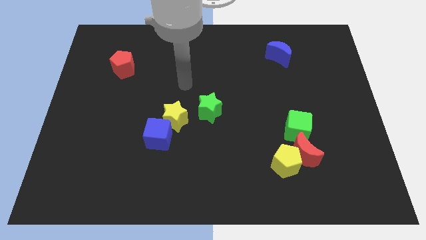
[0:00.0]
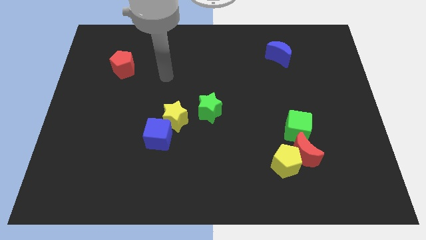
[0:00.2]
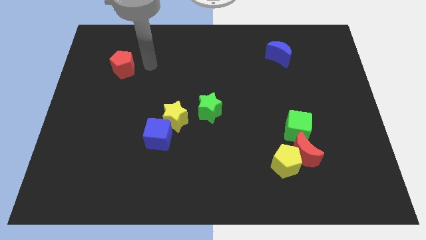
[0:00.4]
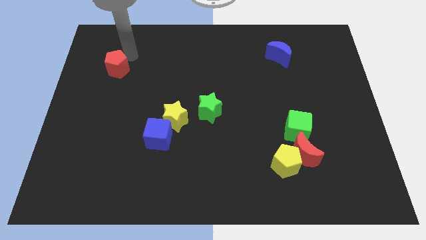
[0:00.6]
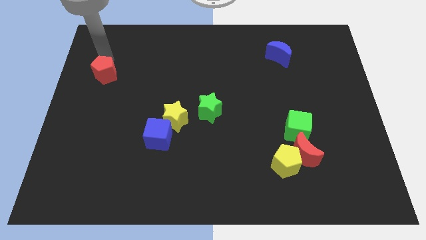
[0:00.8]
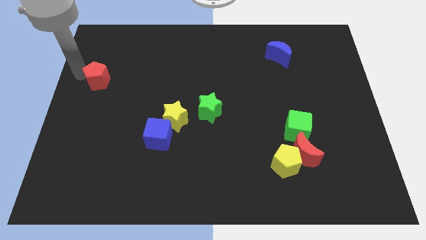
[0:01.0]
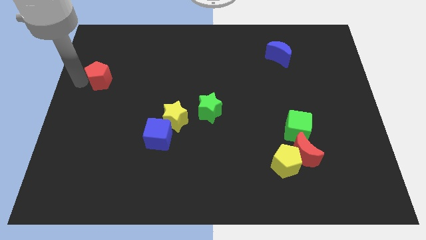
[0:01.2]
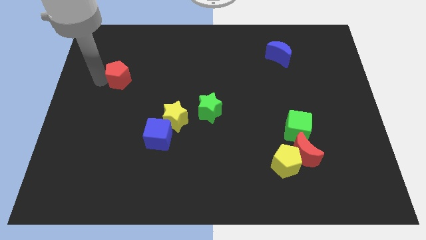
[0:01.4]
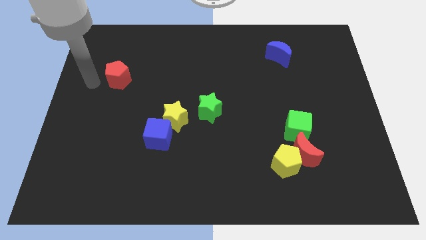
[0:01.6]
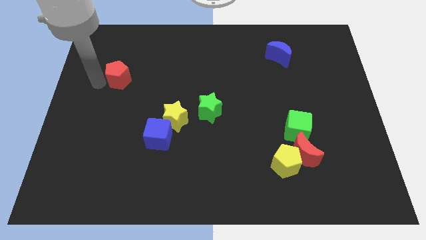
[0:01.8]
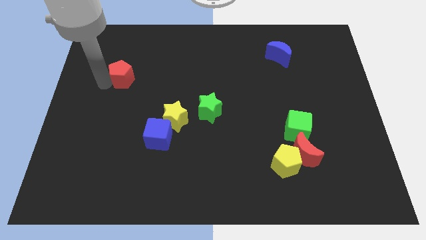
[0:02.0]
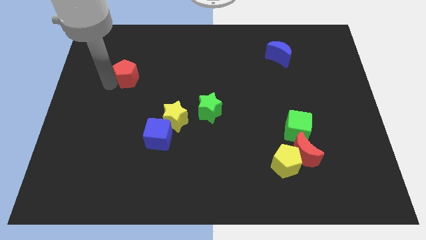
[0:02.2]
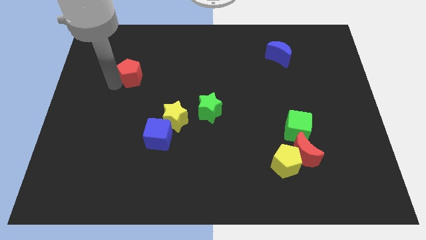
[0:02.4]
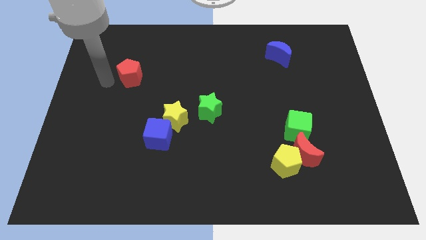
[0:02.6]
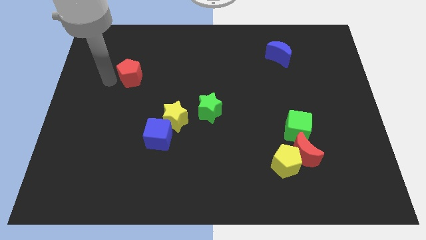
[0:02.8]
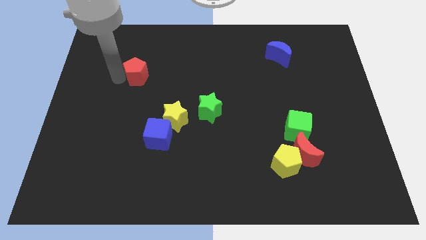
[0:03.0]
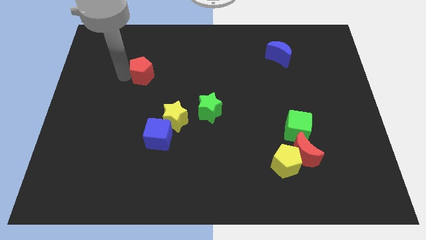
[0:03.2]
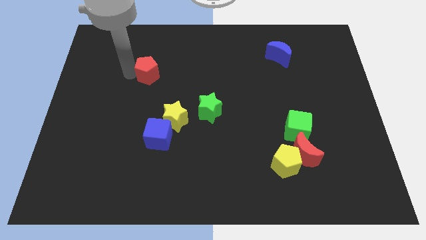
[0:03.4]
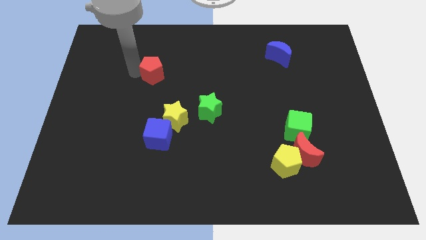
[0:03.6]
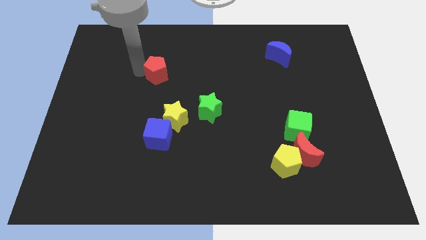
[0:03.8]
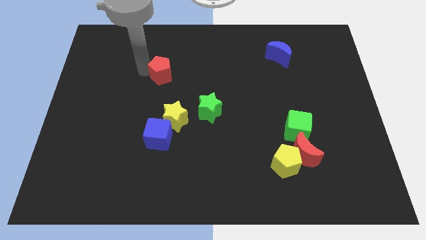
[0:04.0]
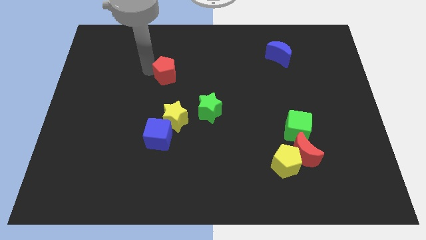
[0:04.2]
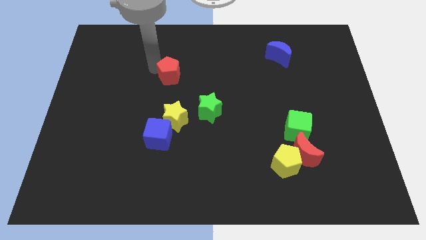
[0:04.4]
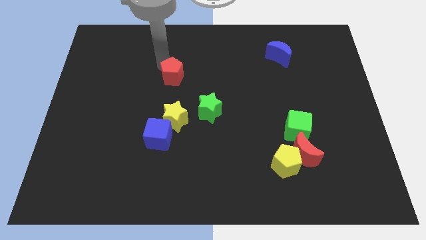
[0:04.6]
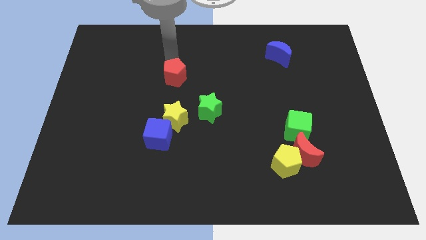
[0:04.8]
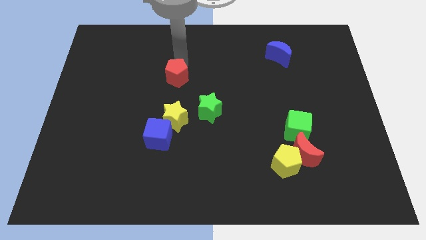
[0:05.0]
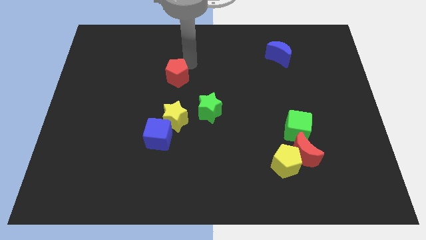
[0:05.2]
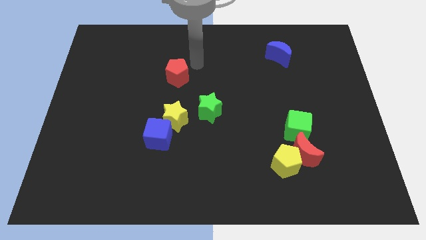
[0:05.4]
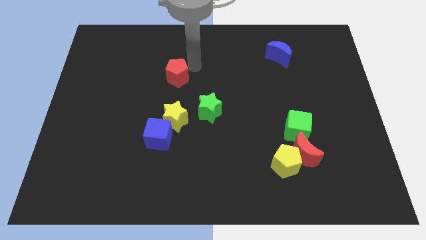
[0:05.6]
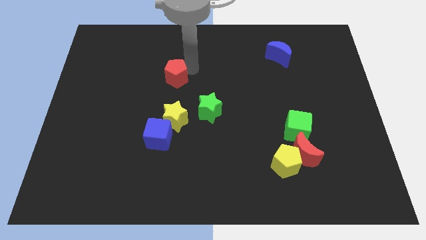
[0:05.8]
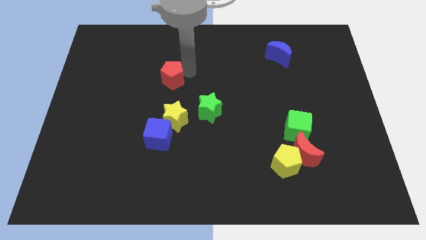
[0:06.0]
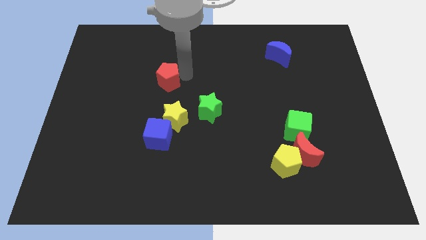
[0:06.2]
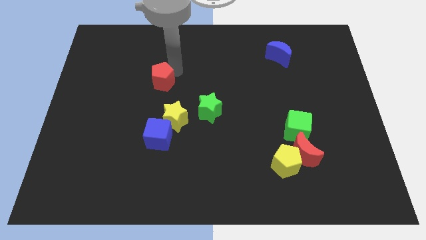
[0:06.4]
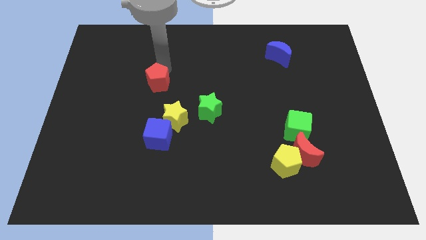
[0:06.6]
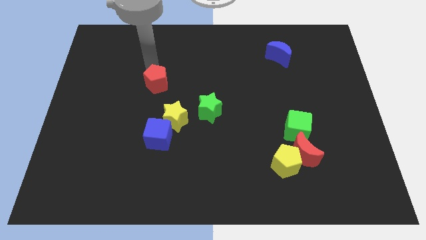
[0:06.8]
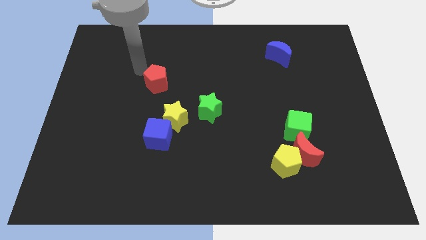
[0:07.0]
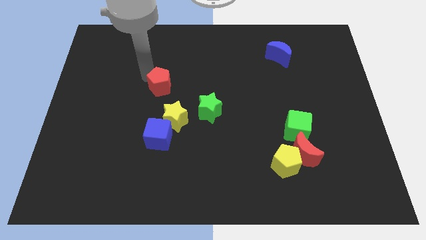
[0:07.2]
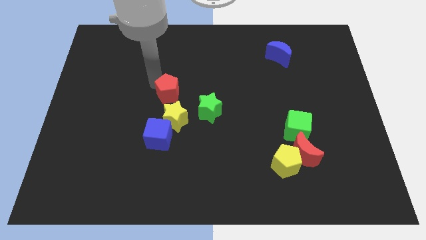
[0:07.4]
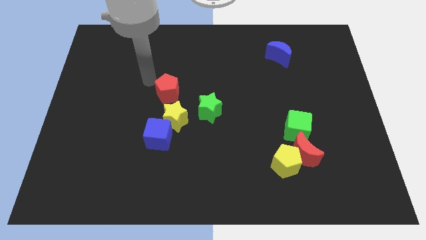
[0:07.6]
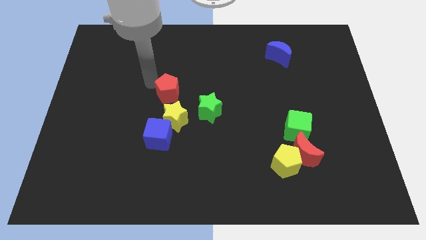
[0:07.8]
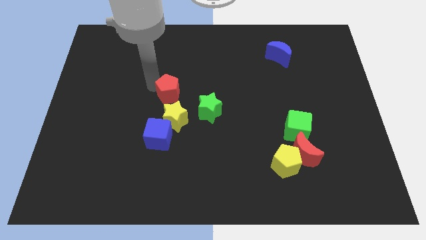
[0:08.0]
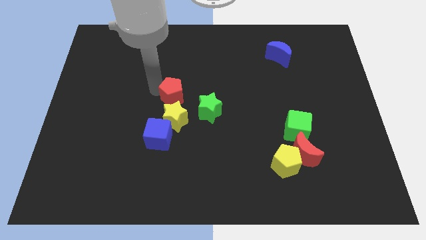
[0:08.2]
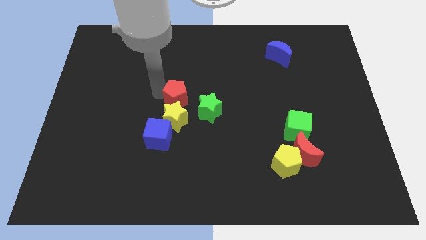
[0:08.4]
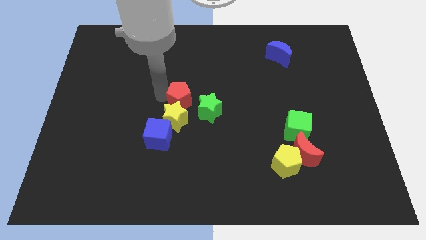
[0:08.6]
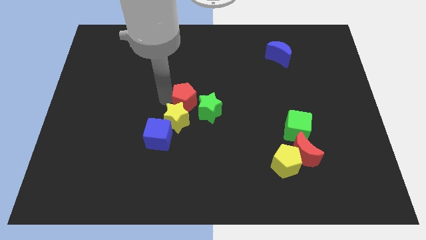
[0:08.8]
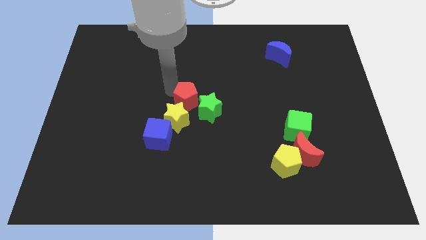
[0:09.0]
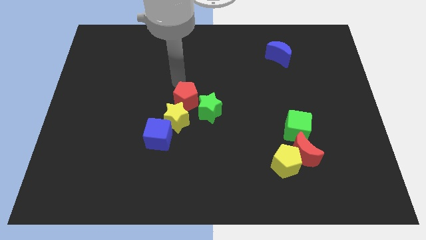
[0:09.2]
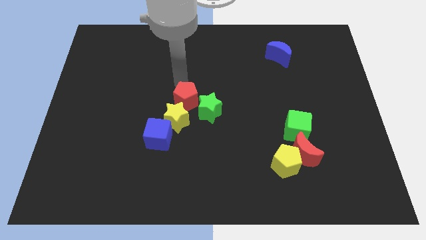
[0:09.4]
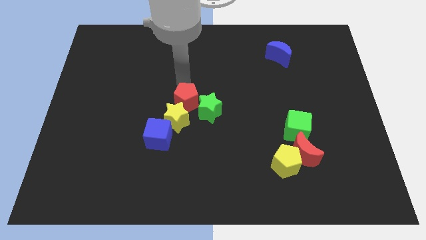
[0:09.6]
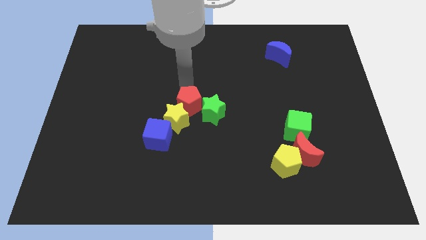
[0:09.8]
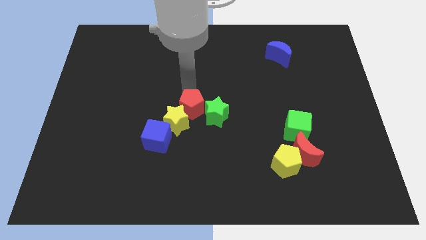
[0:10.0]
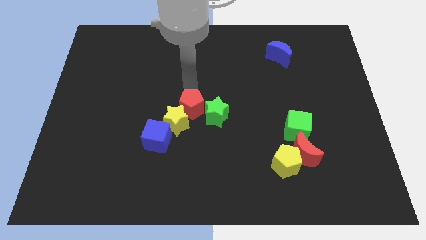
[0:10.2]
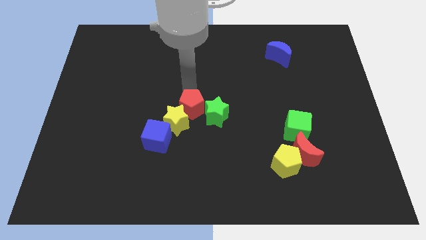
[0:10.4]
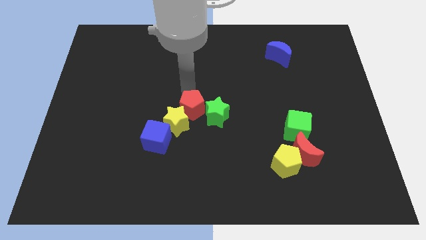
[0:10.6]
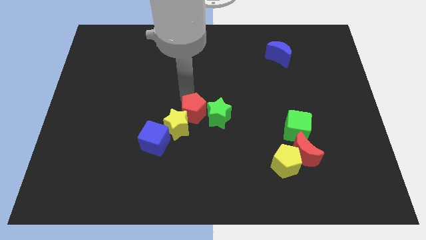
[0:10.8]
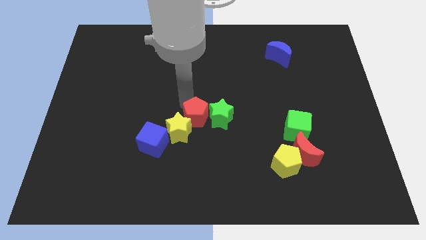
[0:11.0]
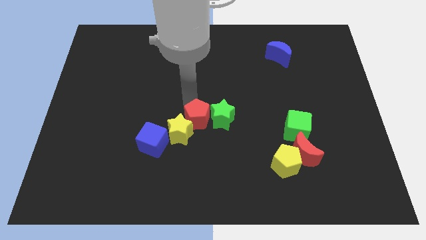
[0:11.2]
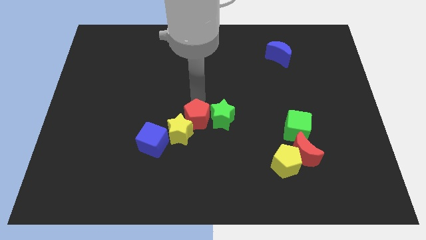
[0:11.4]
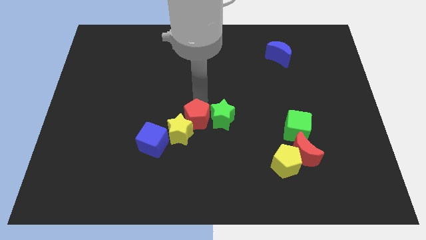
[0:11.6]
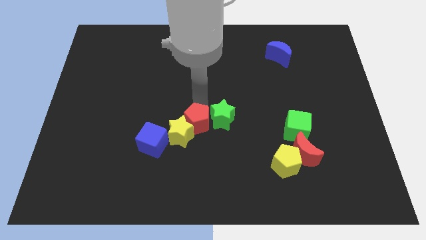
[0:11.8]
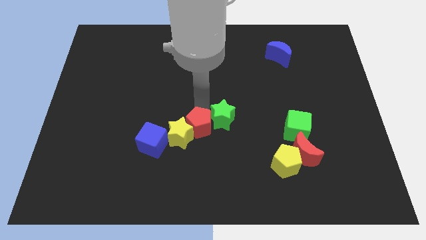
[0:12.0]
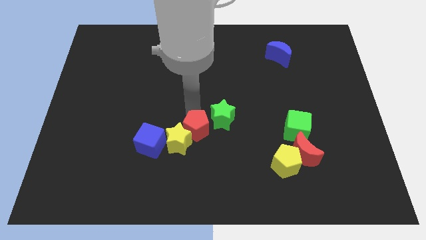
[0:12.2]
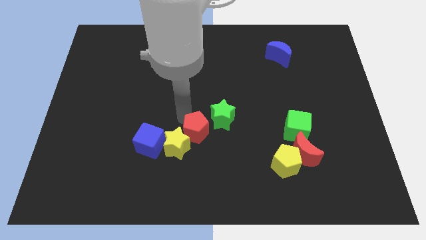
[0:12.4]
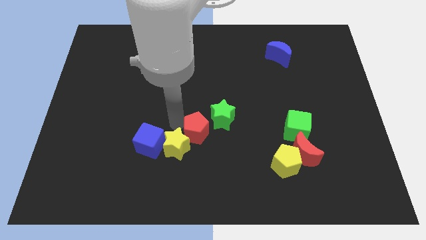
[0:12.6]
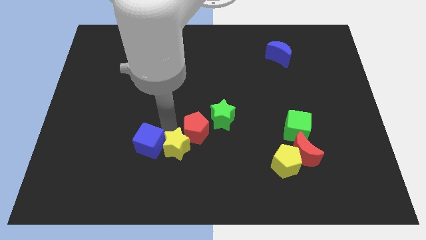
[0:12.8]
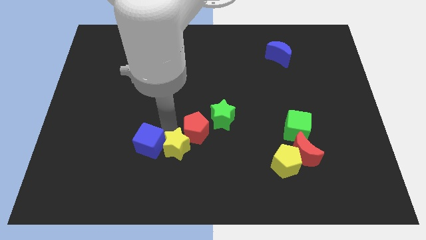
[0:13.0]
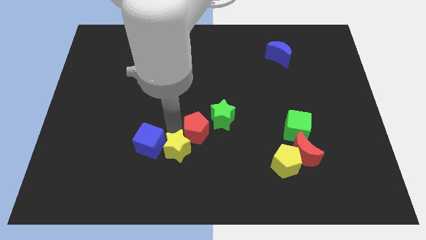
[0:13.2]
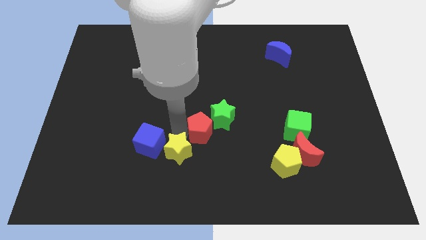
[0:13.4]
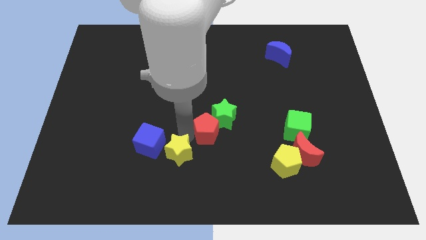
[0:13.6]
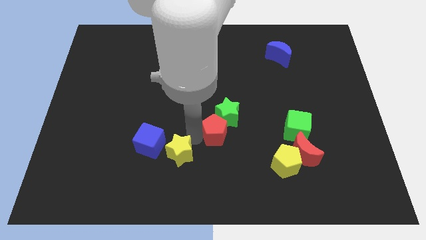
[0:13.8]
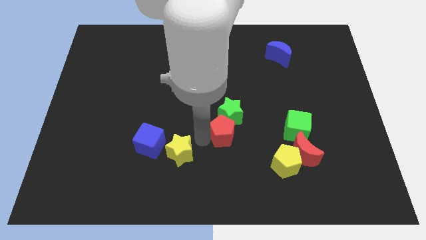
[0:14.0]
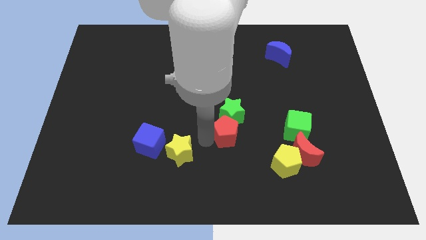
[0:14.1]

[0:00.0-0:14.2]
slide the red pentagon to the bottom right of the green star

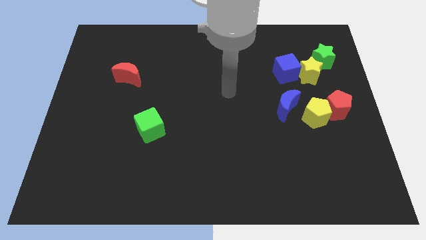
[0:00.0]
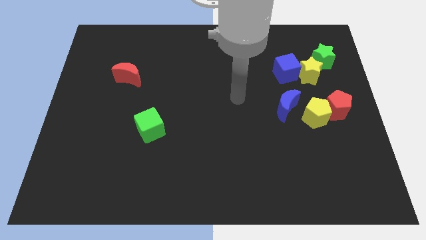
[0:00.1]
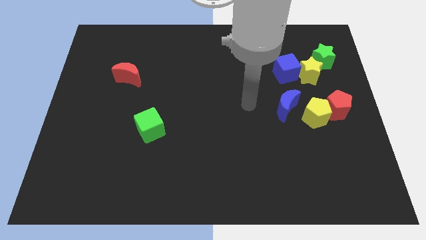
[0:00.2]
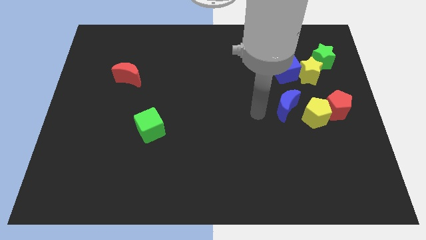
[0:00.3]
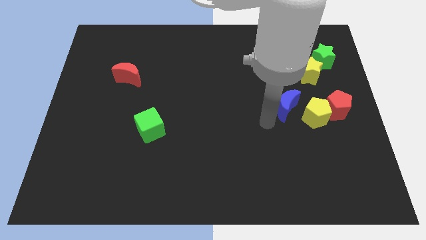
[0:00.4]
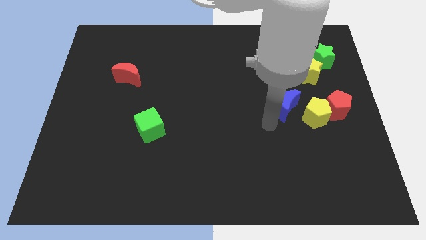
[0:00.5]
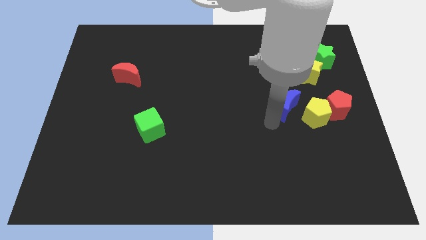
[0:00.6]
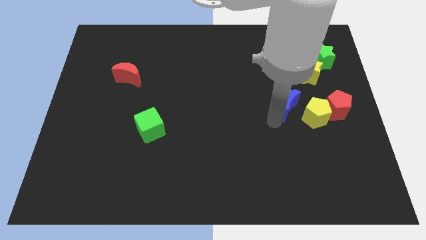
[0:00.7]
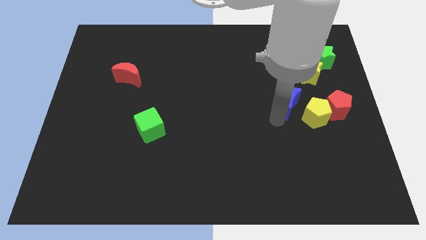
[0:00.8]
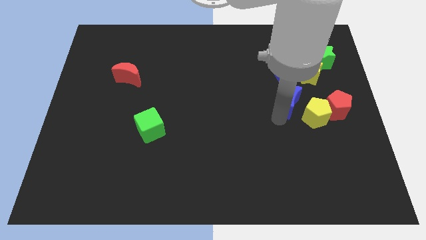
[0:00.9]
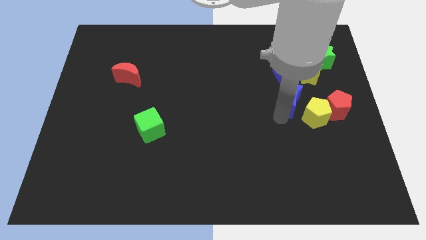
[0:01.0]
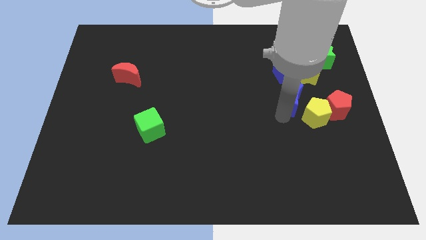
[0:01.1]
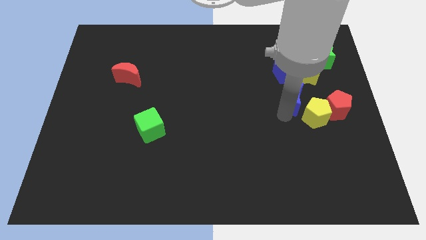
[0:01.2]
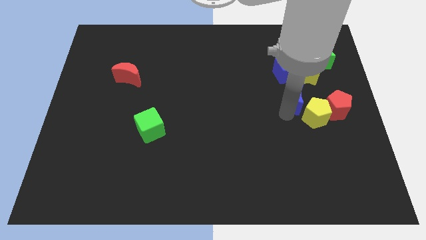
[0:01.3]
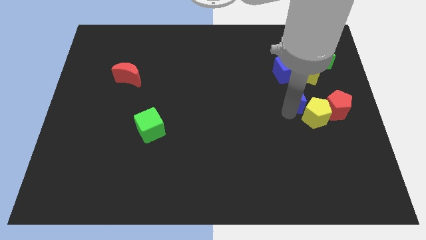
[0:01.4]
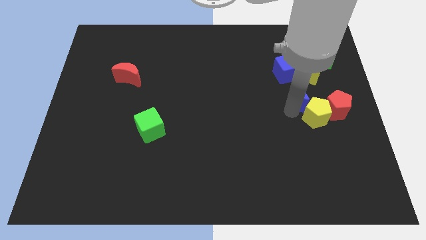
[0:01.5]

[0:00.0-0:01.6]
put the blue moon diagonally down and to the right of the blue cube
